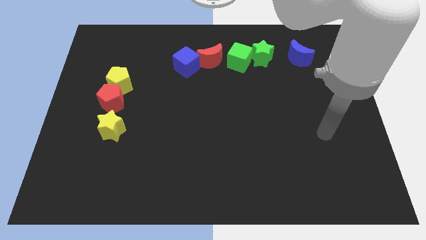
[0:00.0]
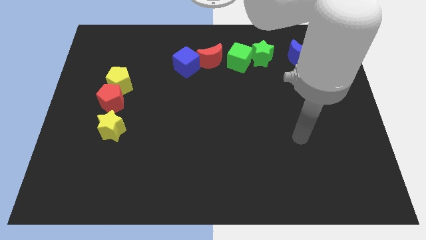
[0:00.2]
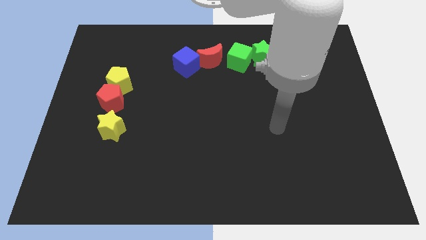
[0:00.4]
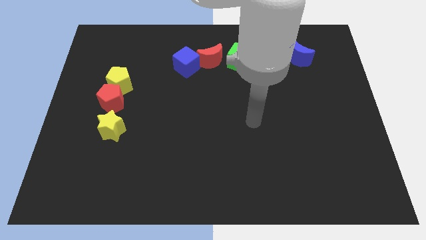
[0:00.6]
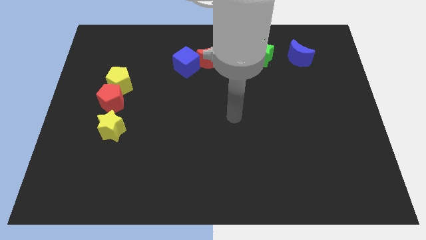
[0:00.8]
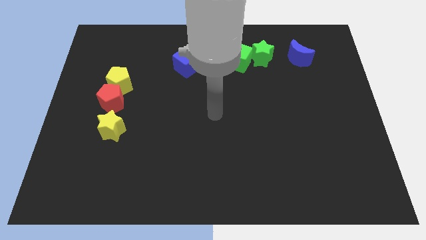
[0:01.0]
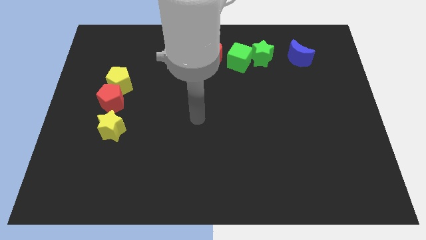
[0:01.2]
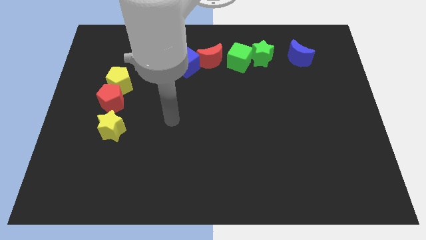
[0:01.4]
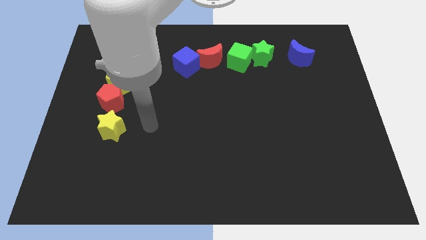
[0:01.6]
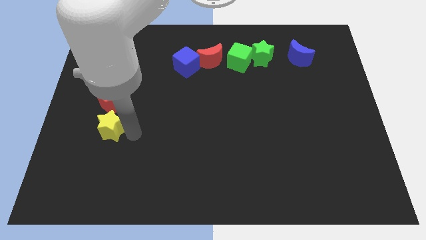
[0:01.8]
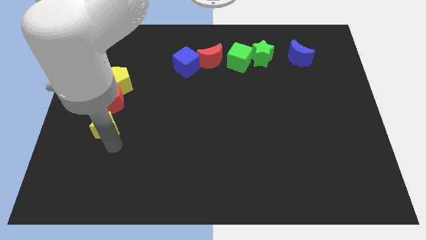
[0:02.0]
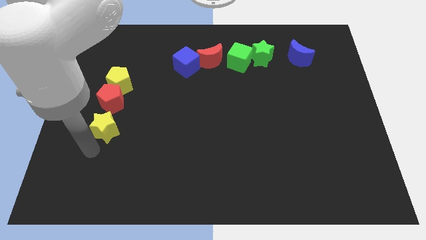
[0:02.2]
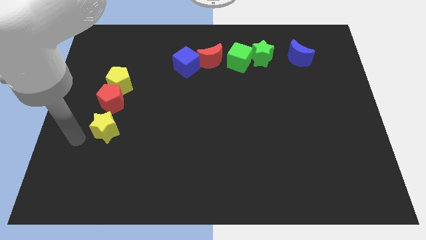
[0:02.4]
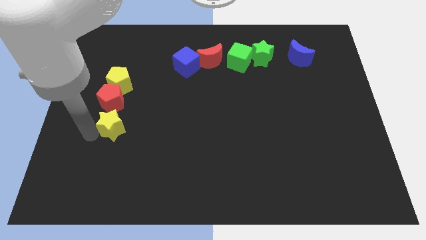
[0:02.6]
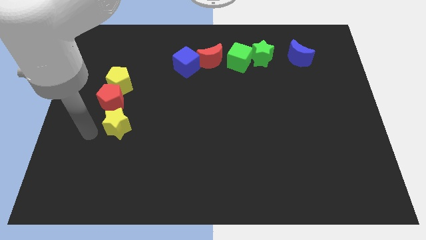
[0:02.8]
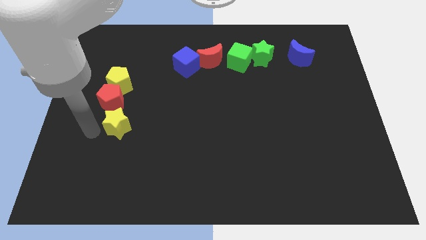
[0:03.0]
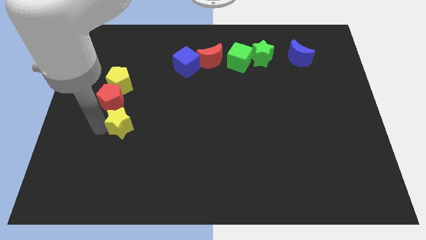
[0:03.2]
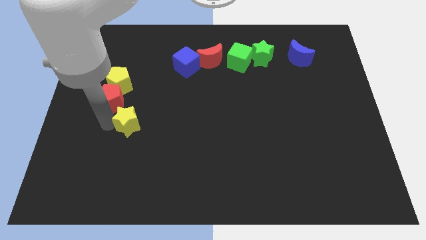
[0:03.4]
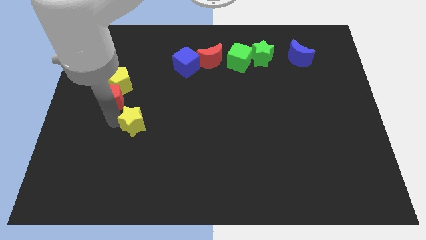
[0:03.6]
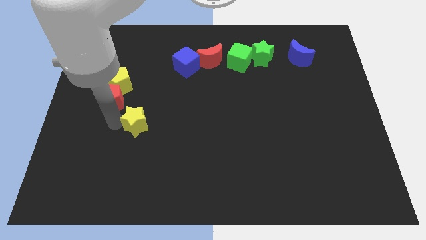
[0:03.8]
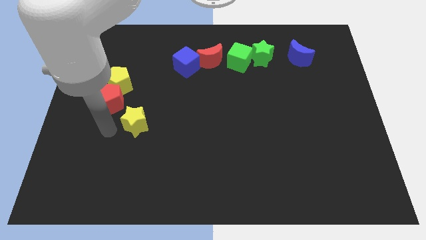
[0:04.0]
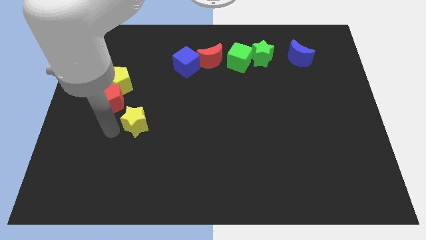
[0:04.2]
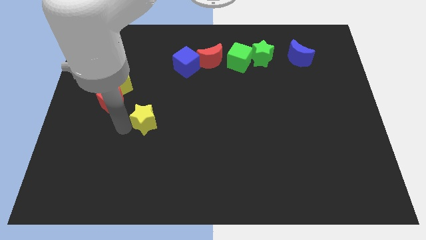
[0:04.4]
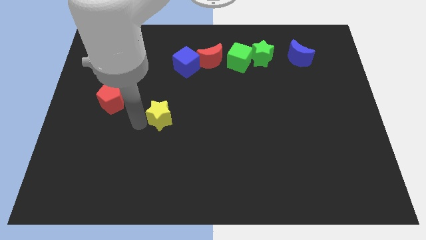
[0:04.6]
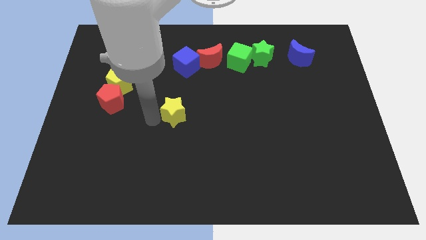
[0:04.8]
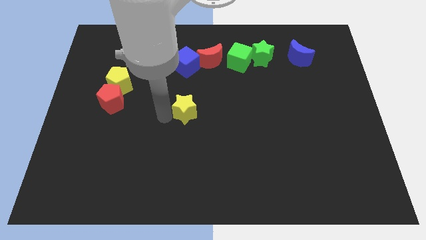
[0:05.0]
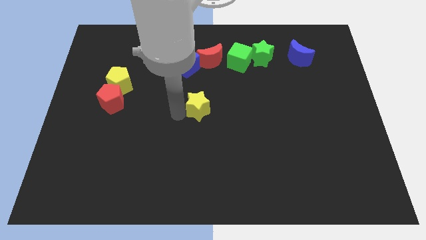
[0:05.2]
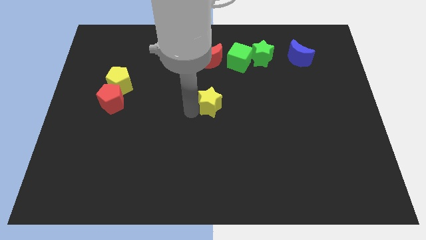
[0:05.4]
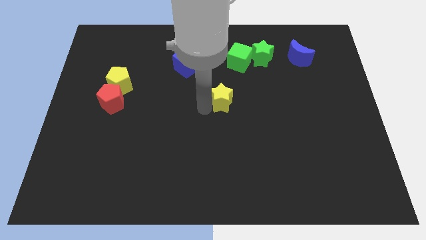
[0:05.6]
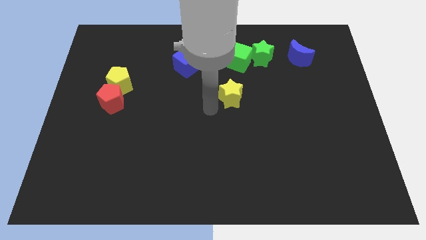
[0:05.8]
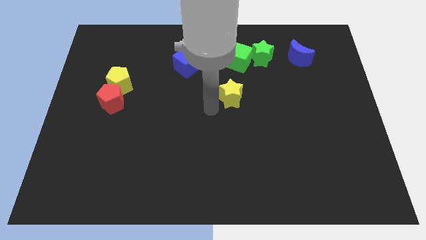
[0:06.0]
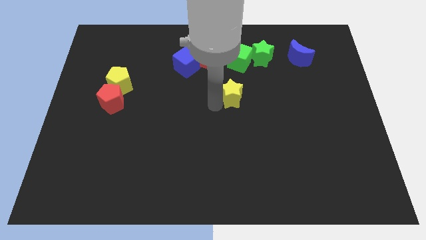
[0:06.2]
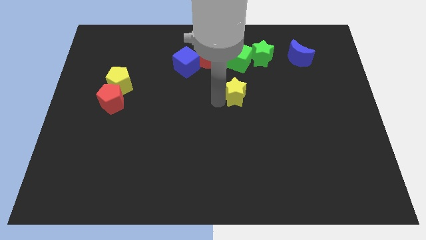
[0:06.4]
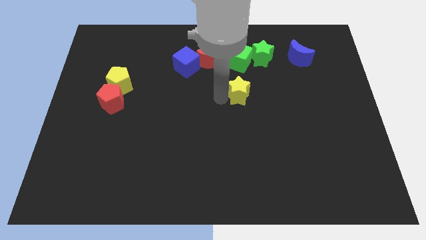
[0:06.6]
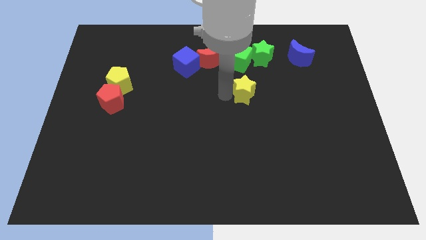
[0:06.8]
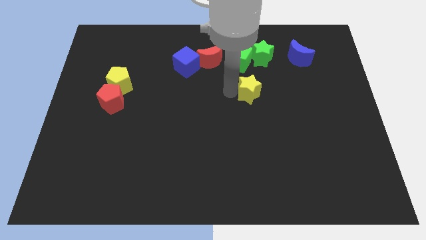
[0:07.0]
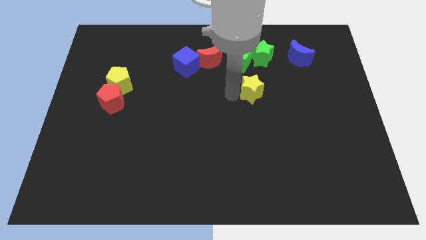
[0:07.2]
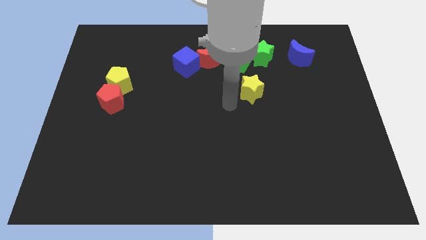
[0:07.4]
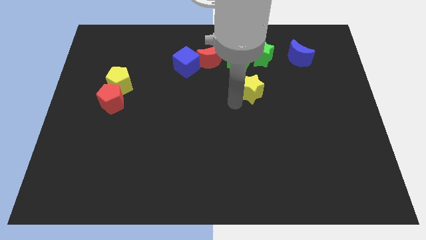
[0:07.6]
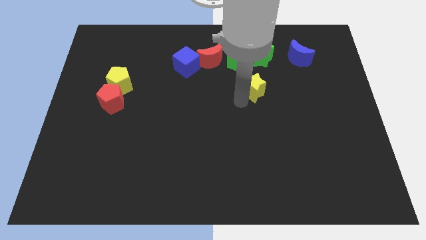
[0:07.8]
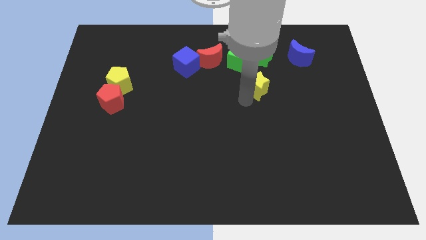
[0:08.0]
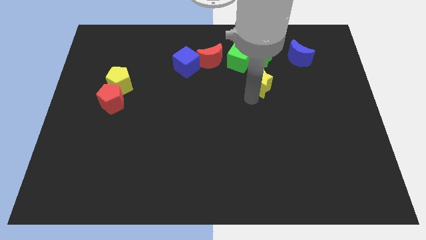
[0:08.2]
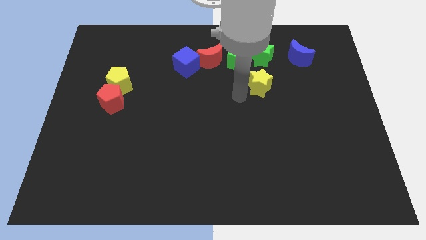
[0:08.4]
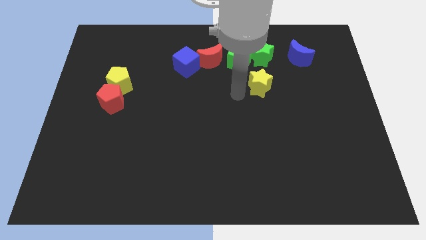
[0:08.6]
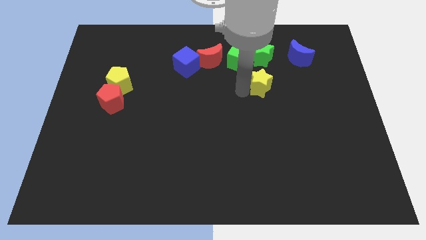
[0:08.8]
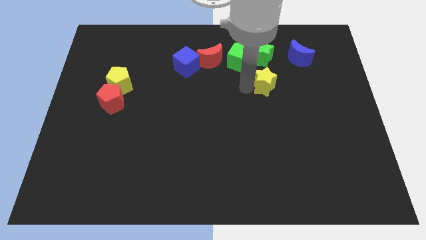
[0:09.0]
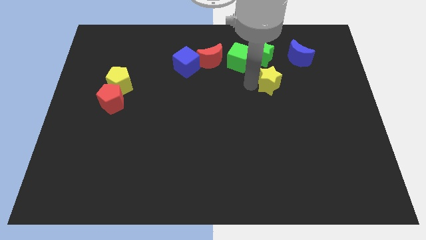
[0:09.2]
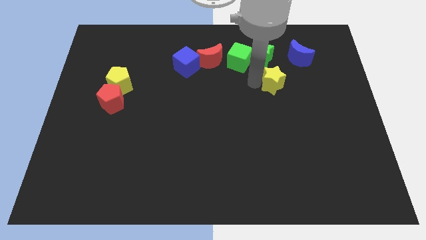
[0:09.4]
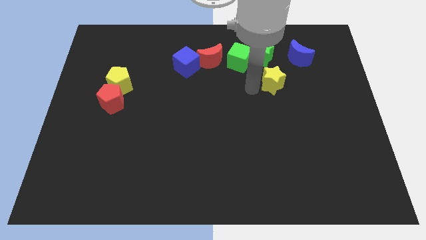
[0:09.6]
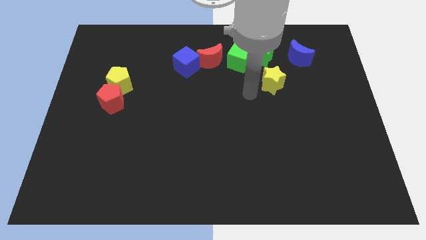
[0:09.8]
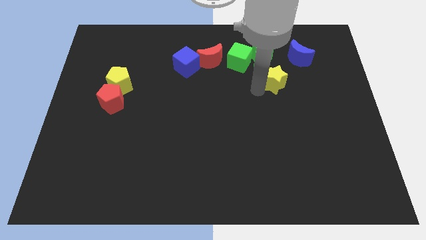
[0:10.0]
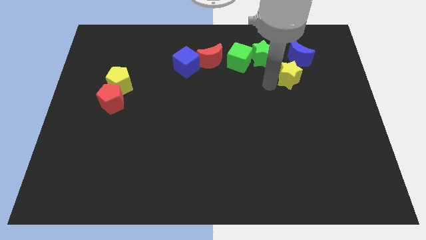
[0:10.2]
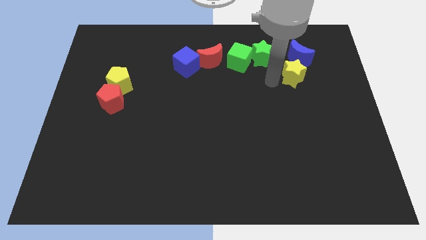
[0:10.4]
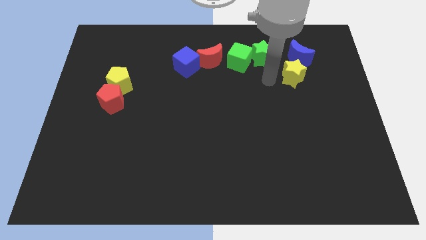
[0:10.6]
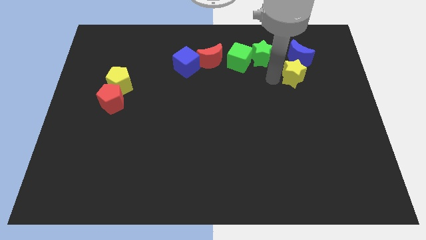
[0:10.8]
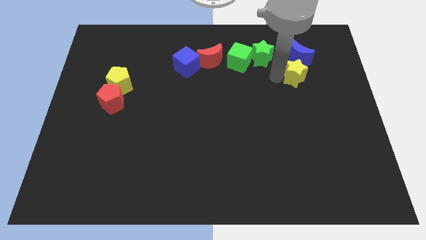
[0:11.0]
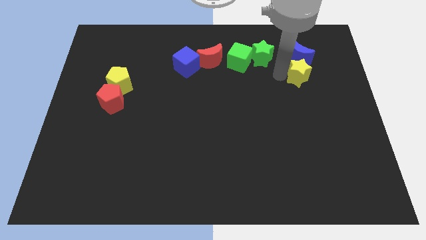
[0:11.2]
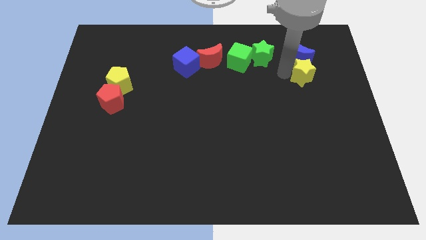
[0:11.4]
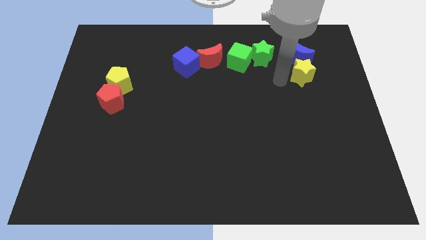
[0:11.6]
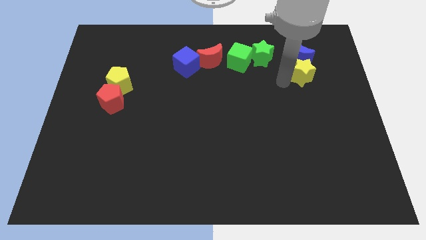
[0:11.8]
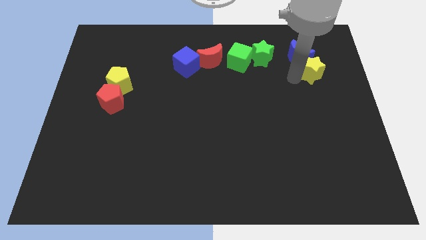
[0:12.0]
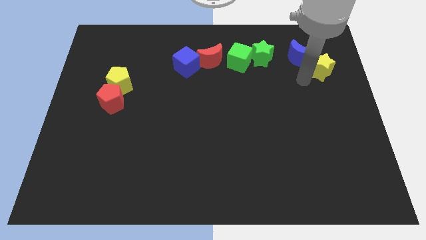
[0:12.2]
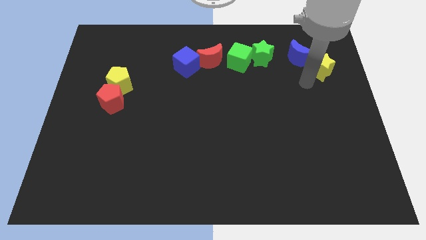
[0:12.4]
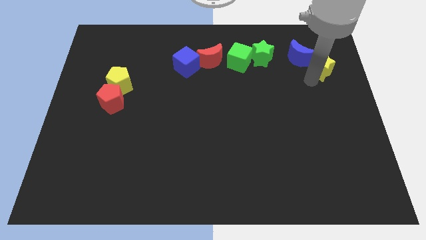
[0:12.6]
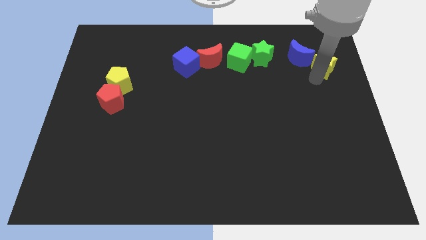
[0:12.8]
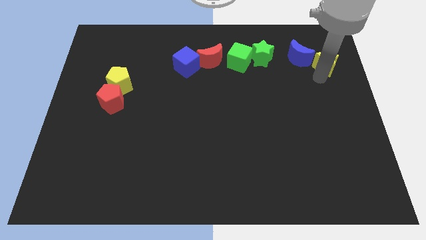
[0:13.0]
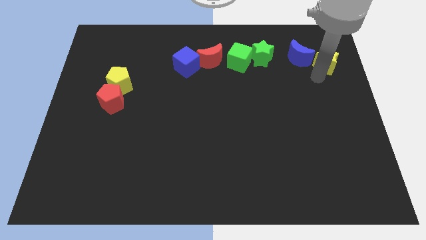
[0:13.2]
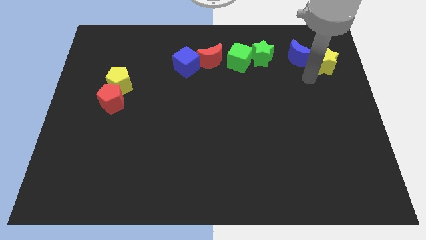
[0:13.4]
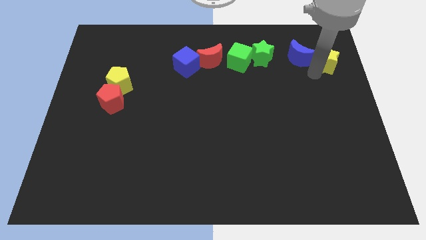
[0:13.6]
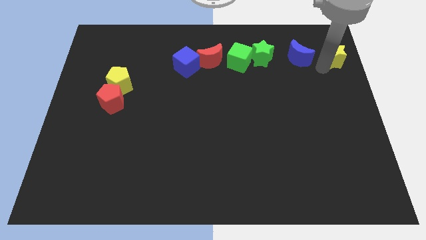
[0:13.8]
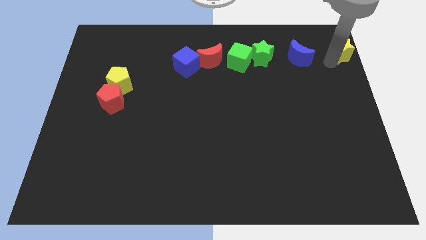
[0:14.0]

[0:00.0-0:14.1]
move the yellow star to the top right

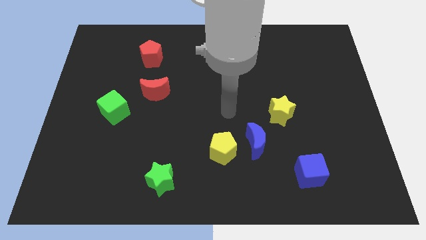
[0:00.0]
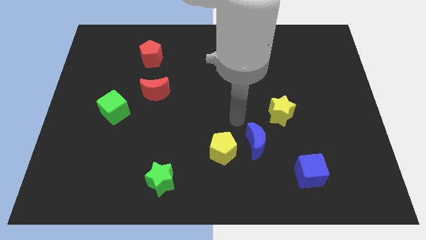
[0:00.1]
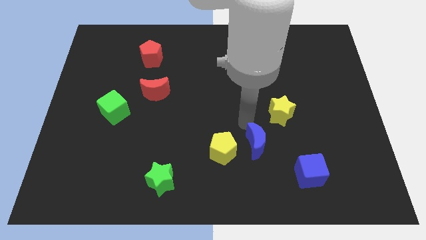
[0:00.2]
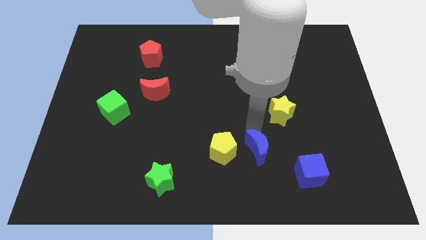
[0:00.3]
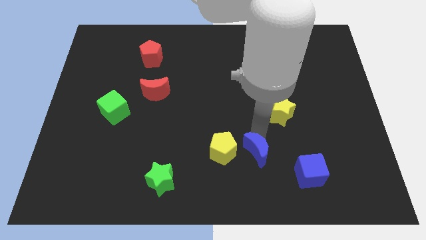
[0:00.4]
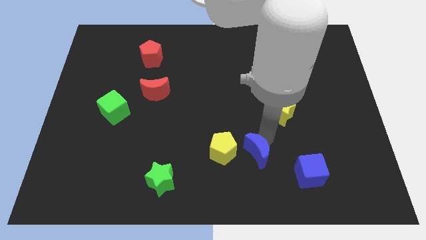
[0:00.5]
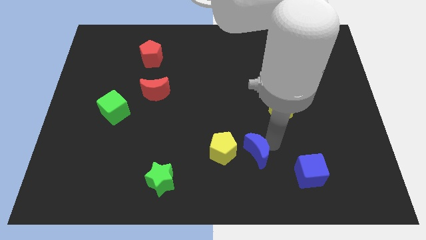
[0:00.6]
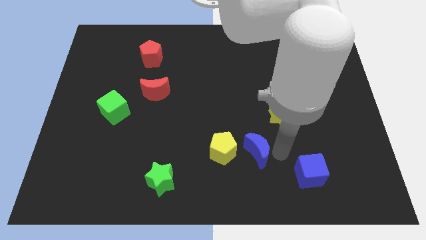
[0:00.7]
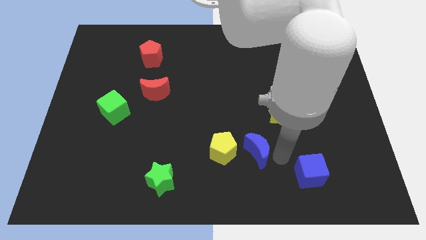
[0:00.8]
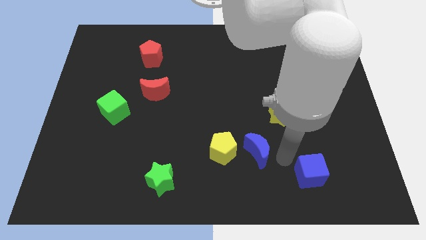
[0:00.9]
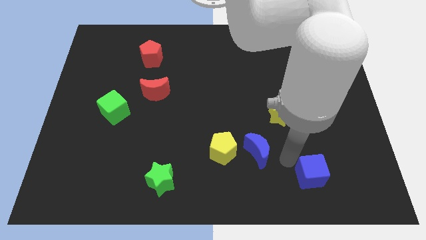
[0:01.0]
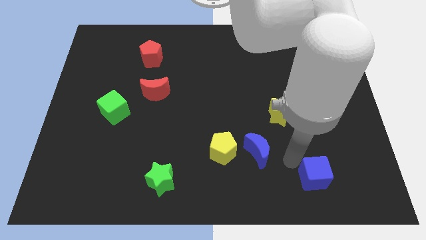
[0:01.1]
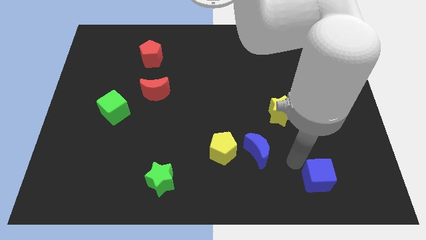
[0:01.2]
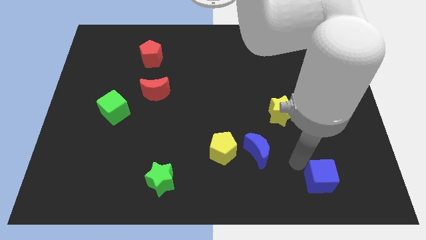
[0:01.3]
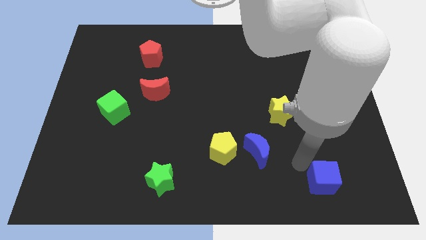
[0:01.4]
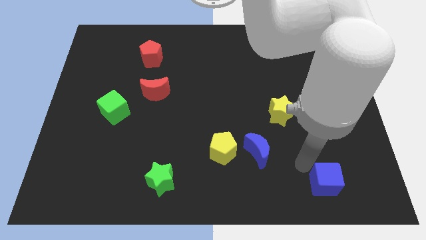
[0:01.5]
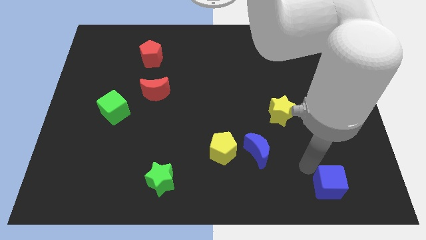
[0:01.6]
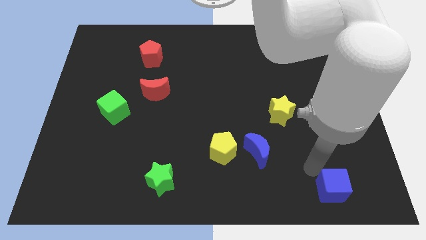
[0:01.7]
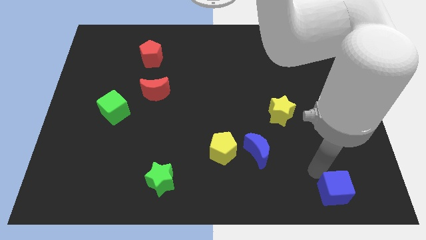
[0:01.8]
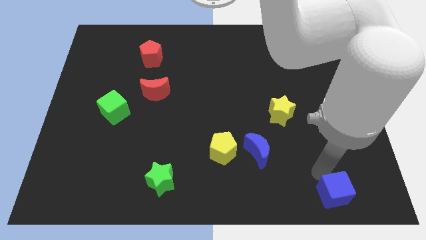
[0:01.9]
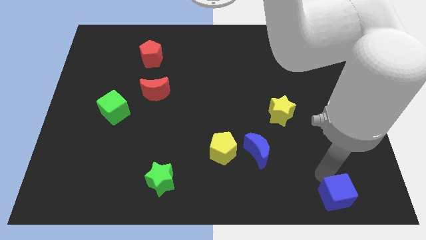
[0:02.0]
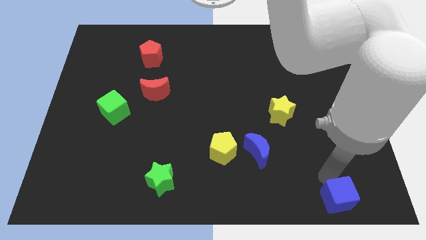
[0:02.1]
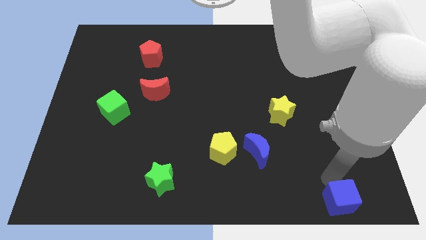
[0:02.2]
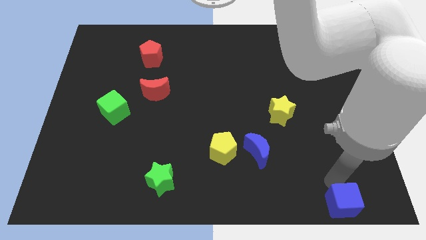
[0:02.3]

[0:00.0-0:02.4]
move the blue cube to the bottom right
